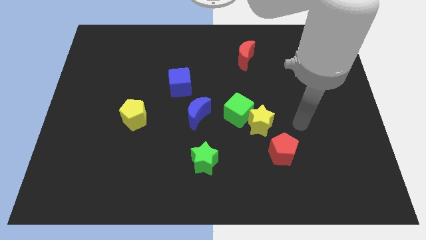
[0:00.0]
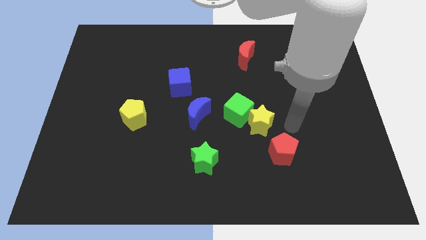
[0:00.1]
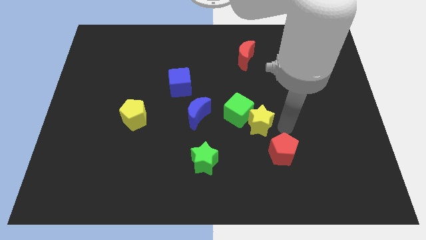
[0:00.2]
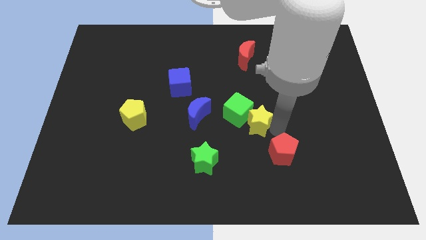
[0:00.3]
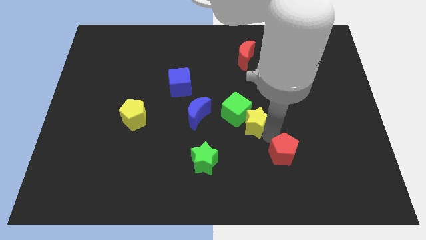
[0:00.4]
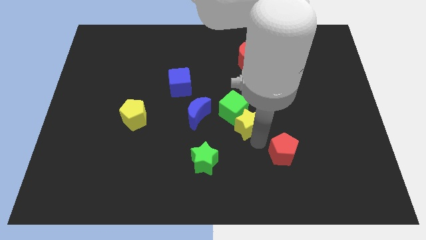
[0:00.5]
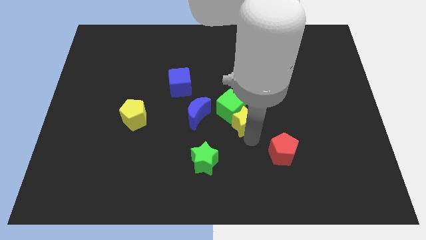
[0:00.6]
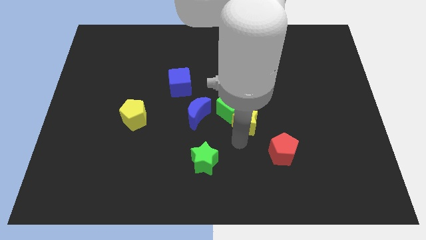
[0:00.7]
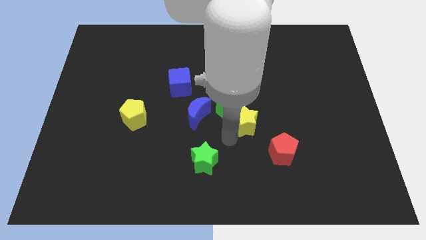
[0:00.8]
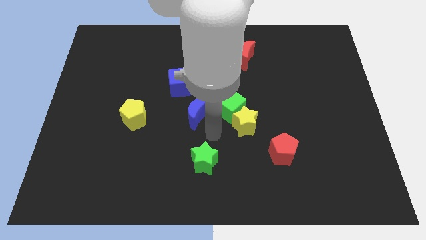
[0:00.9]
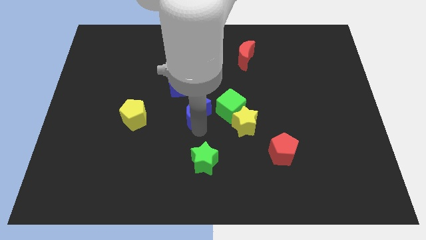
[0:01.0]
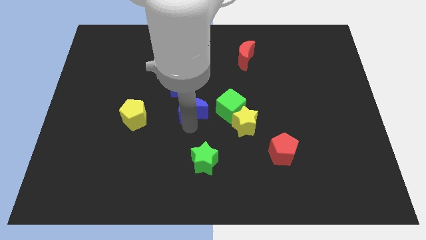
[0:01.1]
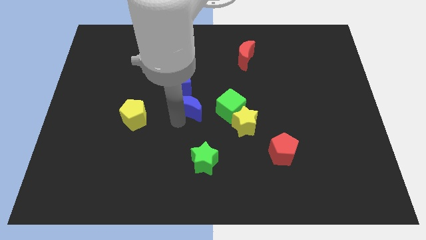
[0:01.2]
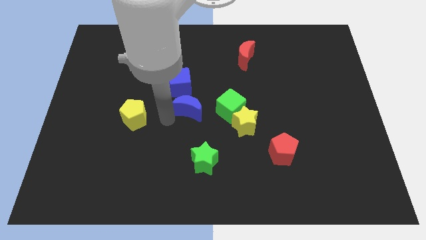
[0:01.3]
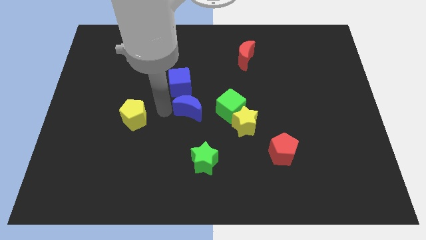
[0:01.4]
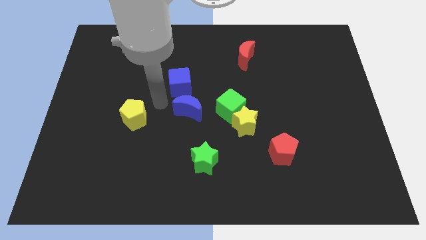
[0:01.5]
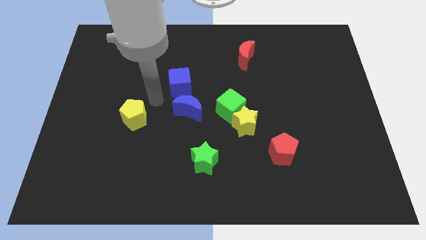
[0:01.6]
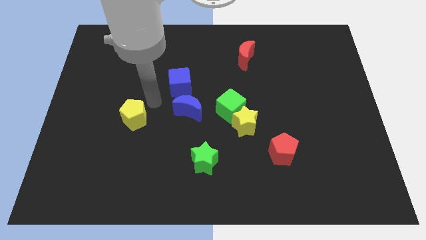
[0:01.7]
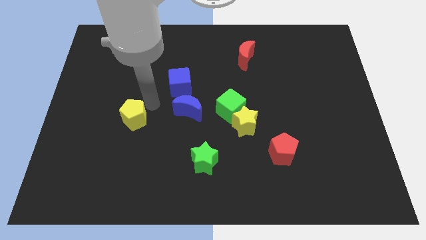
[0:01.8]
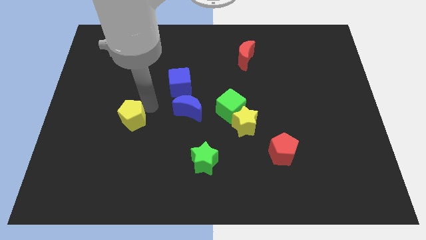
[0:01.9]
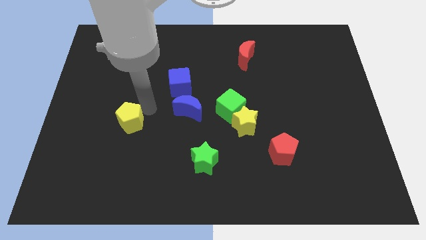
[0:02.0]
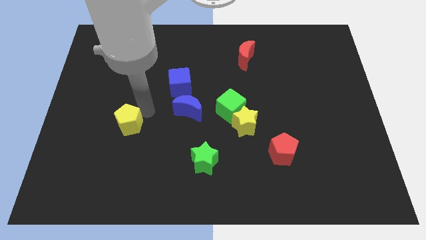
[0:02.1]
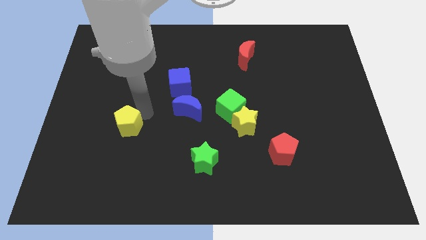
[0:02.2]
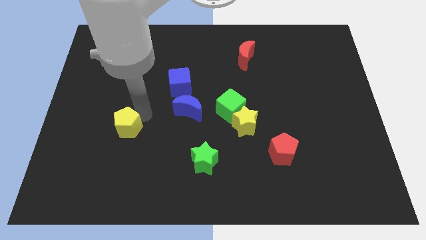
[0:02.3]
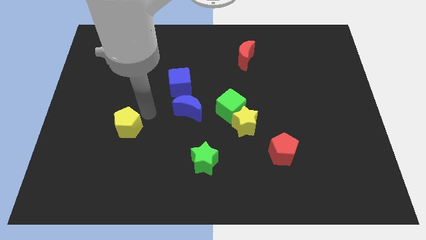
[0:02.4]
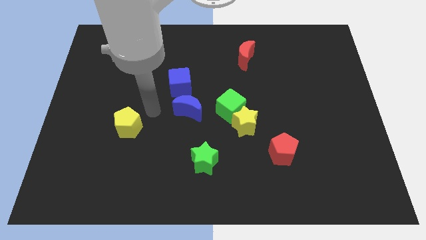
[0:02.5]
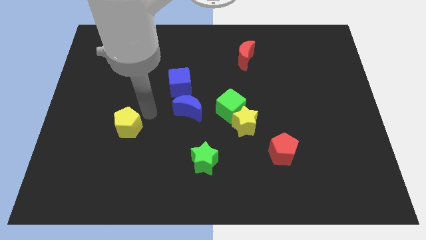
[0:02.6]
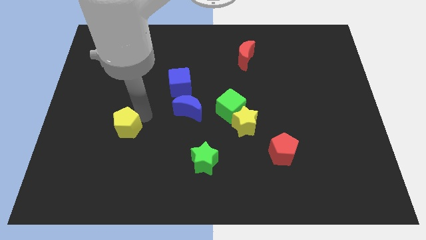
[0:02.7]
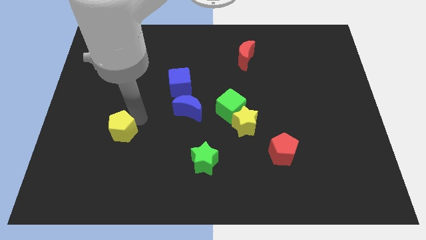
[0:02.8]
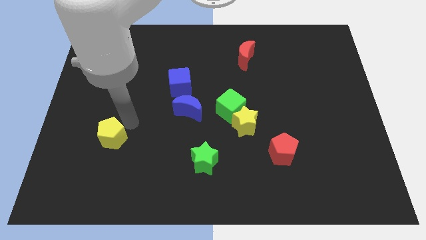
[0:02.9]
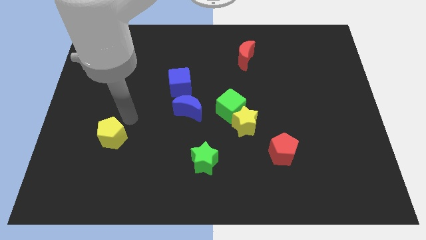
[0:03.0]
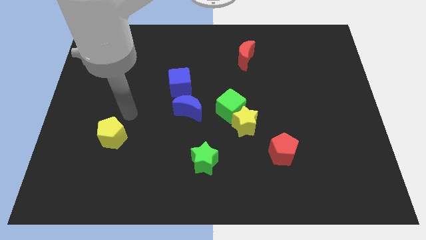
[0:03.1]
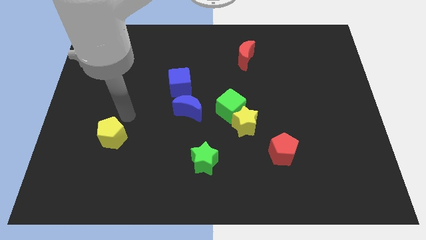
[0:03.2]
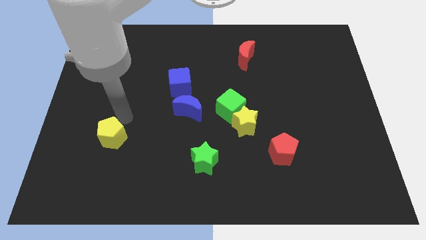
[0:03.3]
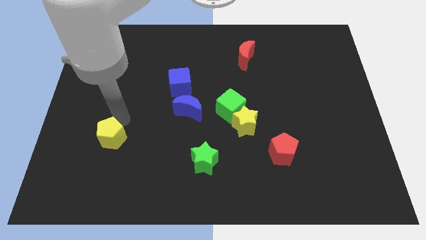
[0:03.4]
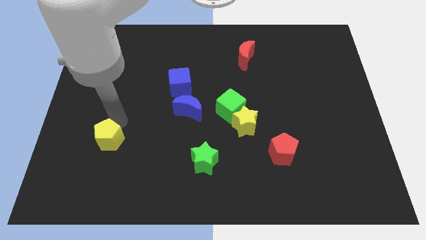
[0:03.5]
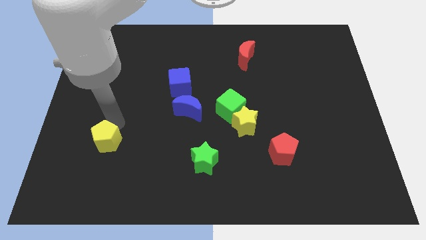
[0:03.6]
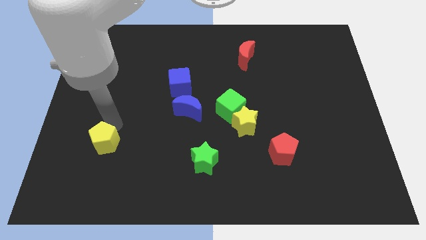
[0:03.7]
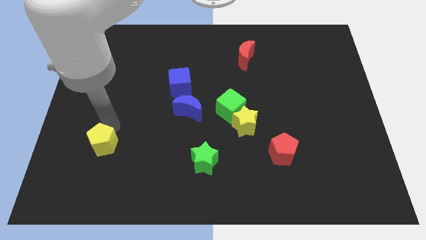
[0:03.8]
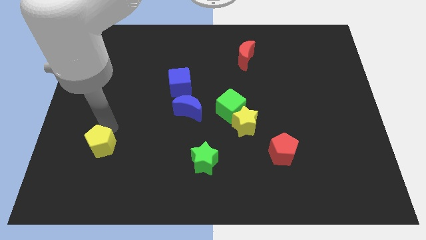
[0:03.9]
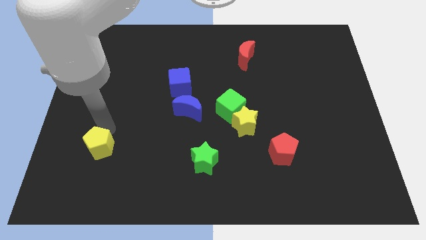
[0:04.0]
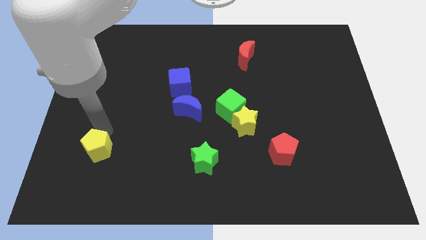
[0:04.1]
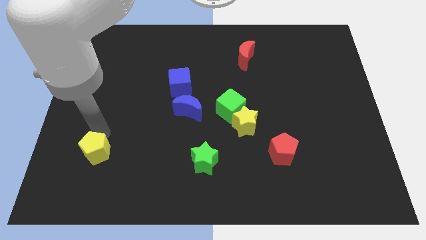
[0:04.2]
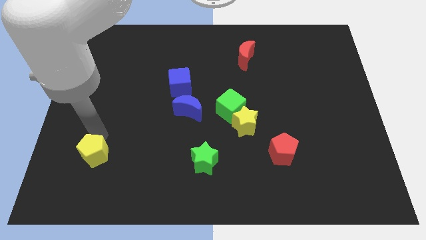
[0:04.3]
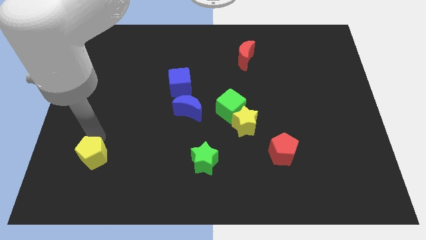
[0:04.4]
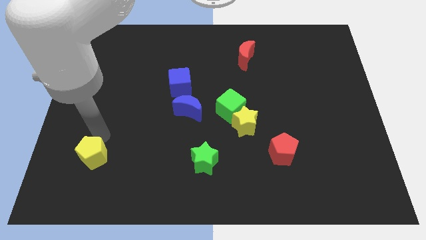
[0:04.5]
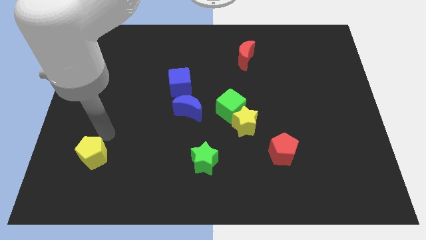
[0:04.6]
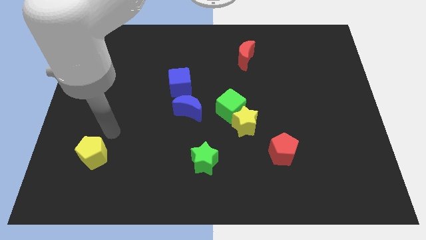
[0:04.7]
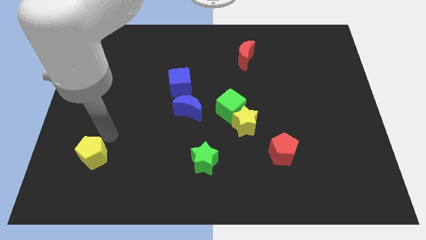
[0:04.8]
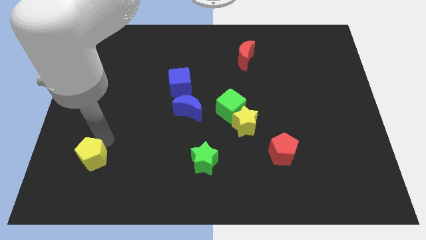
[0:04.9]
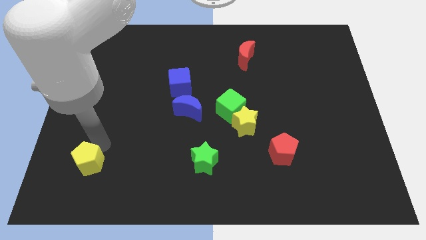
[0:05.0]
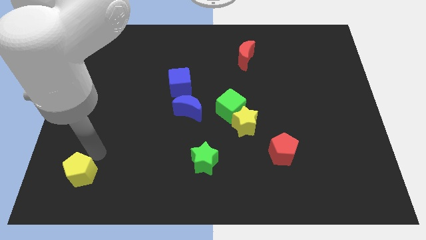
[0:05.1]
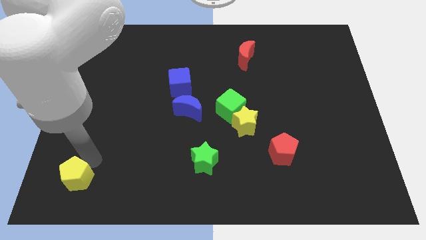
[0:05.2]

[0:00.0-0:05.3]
push the yellow pentagon to the lower left corner
